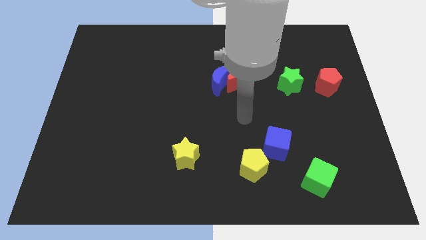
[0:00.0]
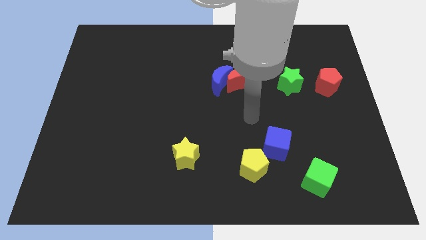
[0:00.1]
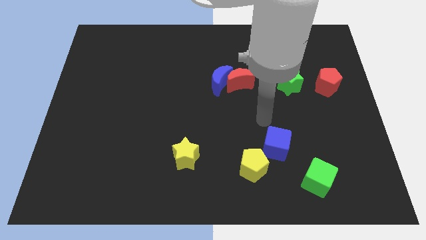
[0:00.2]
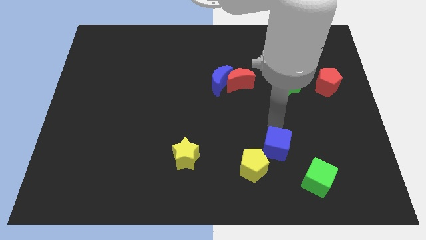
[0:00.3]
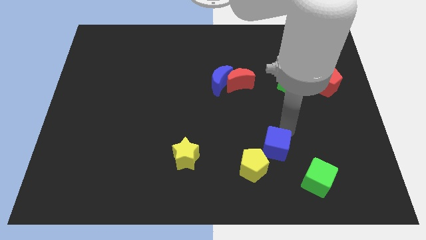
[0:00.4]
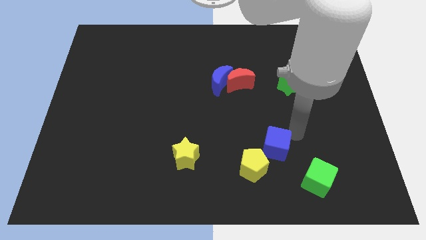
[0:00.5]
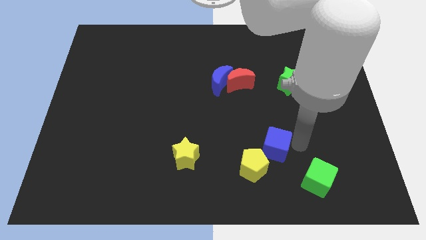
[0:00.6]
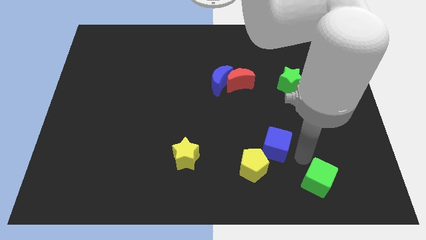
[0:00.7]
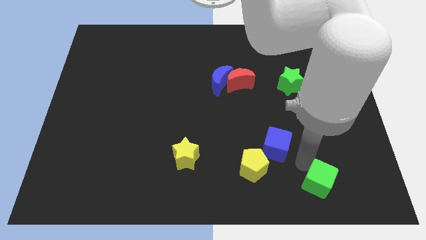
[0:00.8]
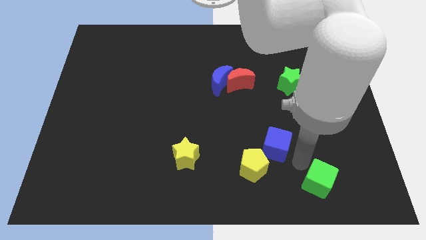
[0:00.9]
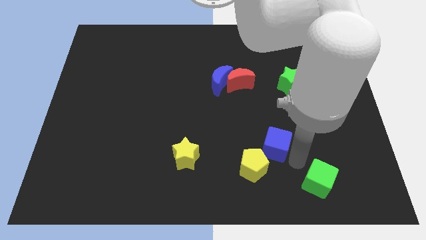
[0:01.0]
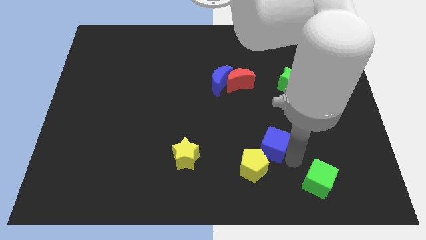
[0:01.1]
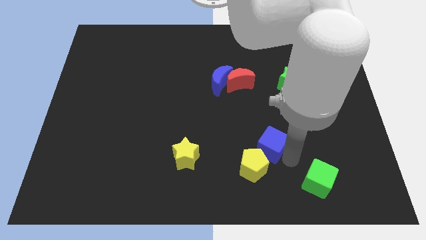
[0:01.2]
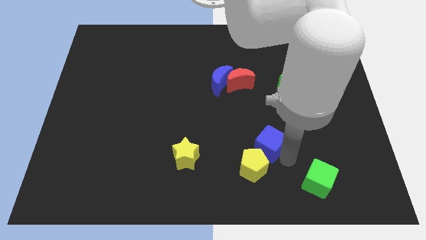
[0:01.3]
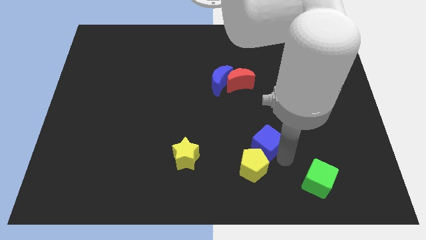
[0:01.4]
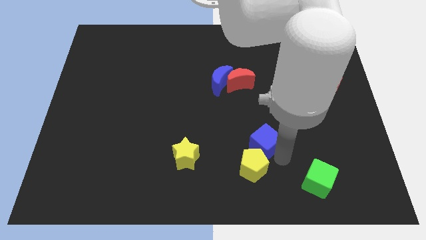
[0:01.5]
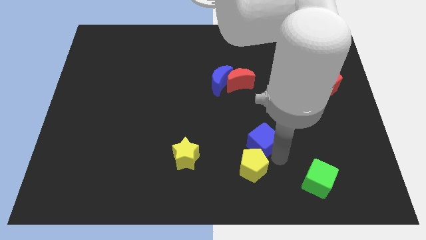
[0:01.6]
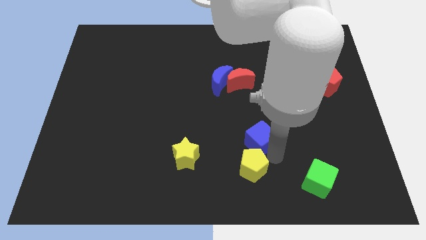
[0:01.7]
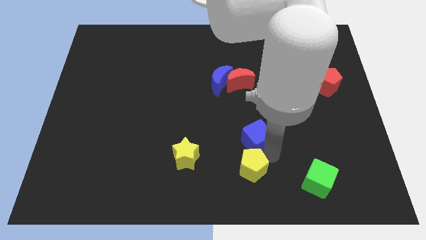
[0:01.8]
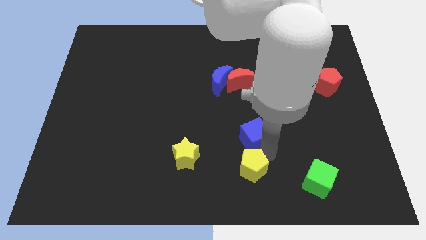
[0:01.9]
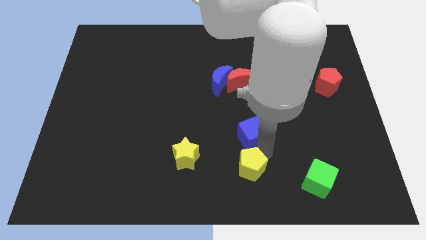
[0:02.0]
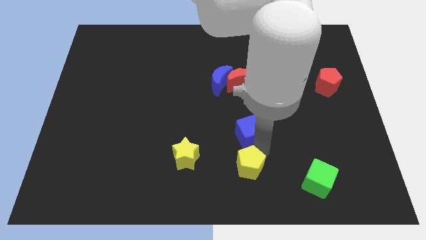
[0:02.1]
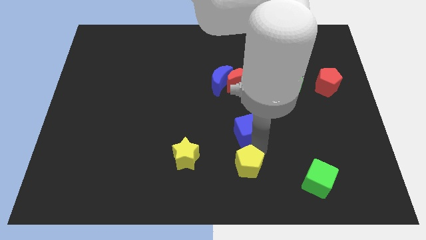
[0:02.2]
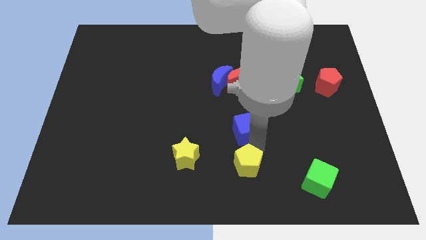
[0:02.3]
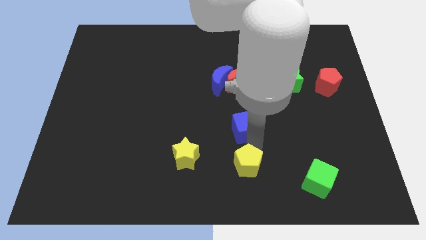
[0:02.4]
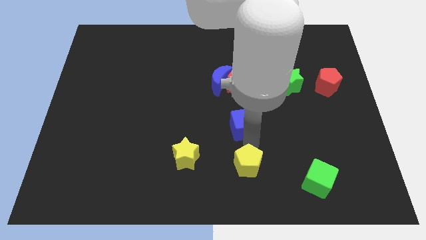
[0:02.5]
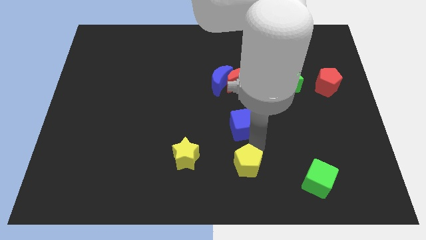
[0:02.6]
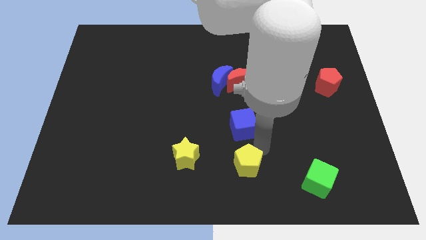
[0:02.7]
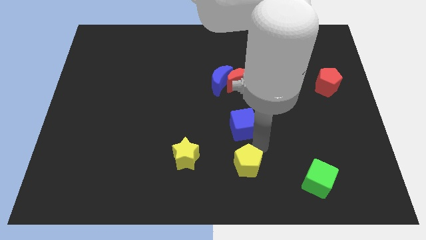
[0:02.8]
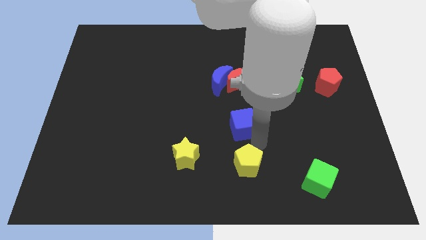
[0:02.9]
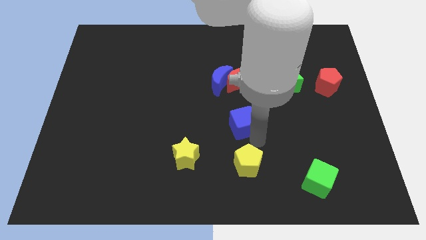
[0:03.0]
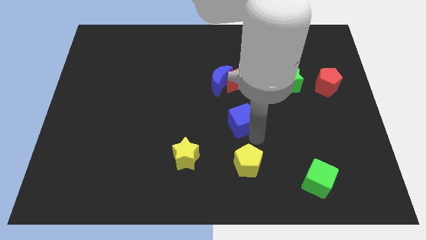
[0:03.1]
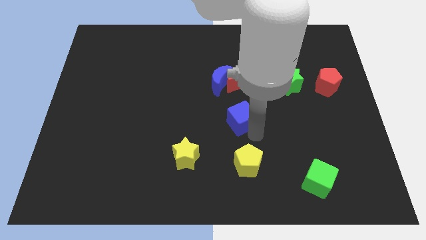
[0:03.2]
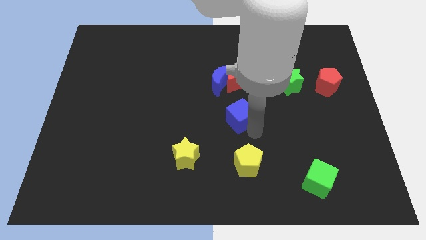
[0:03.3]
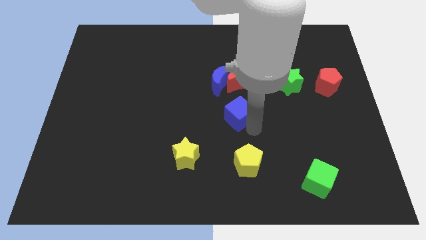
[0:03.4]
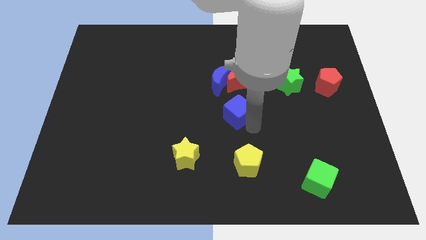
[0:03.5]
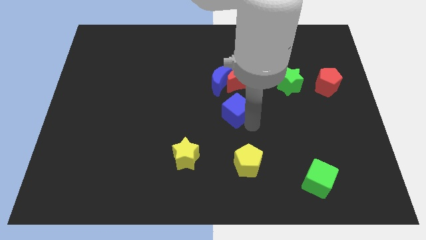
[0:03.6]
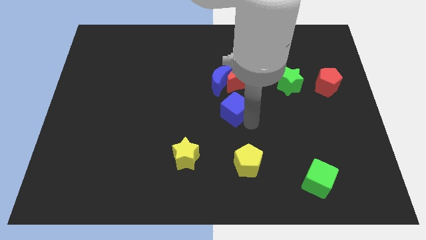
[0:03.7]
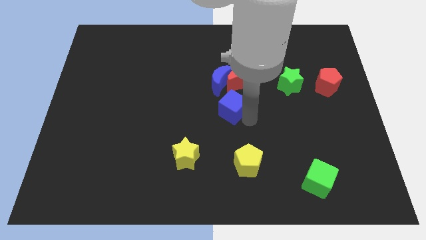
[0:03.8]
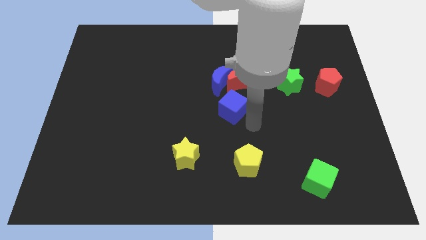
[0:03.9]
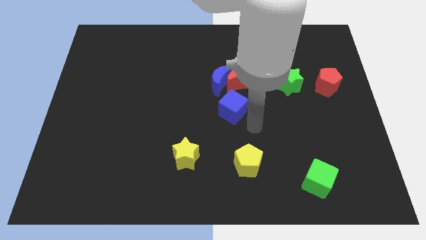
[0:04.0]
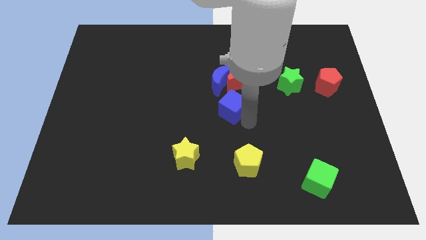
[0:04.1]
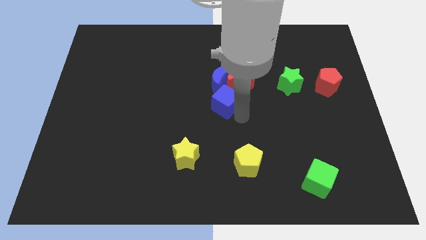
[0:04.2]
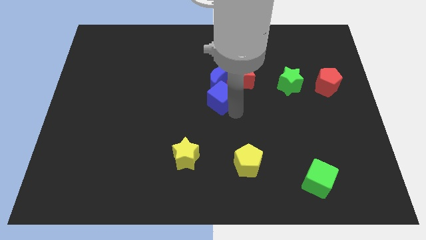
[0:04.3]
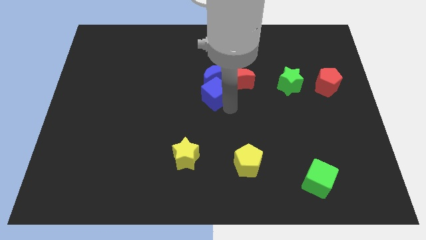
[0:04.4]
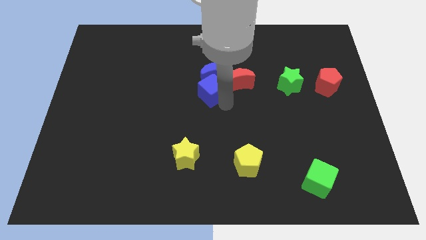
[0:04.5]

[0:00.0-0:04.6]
push the blue cube up and then left

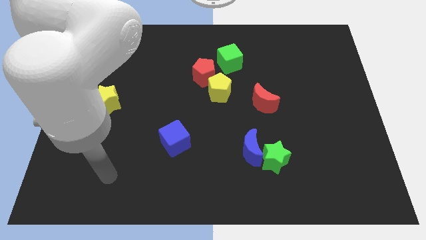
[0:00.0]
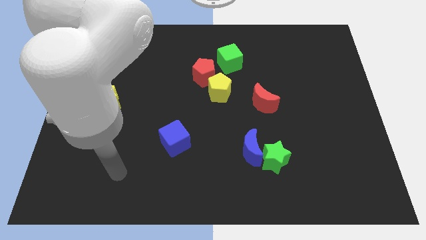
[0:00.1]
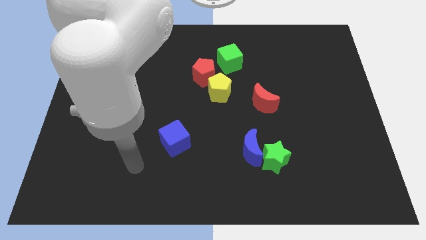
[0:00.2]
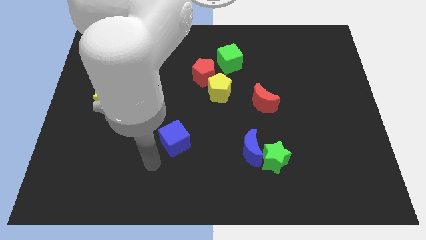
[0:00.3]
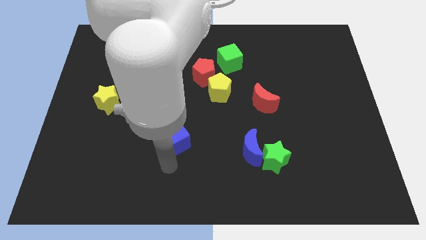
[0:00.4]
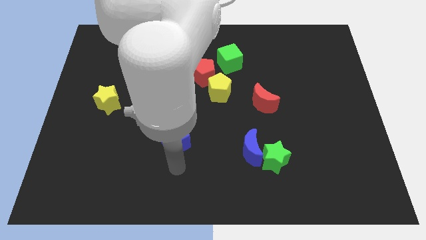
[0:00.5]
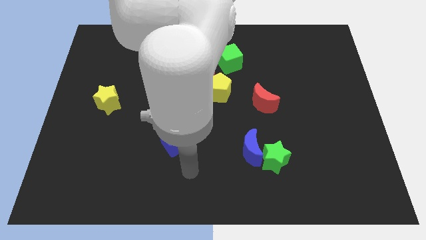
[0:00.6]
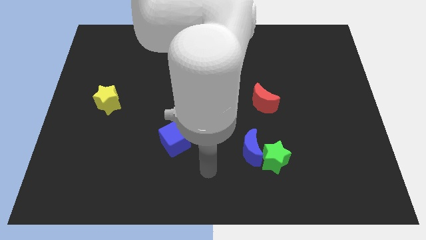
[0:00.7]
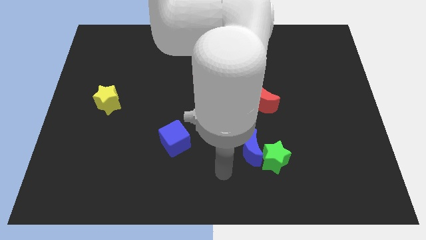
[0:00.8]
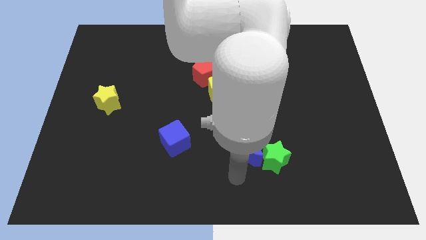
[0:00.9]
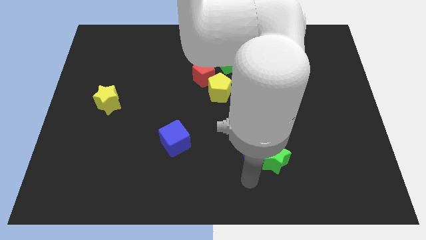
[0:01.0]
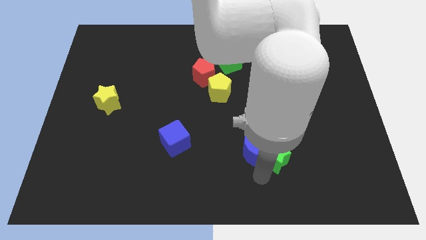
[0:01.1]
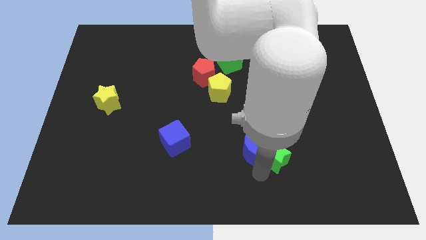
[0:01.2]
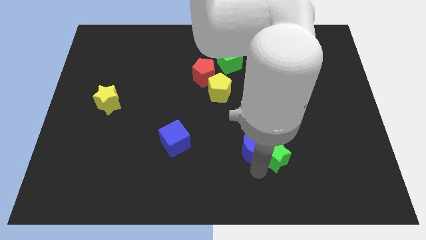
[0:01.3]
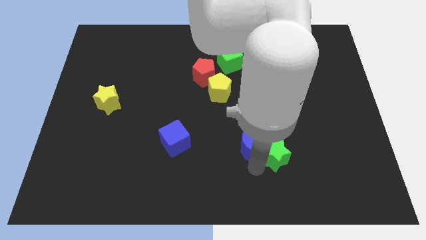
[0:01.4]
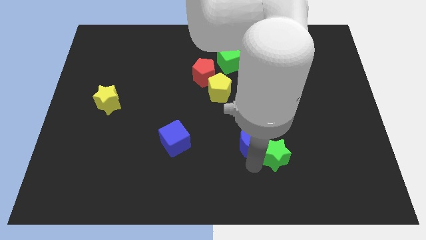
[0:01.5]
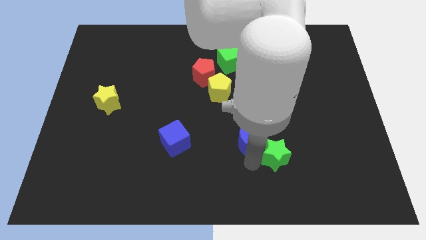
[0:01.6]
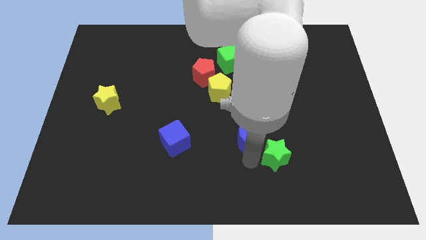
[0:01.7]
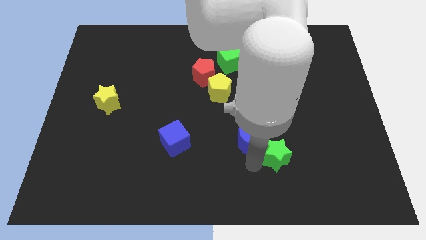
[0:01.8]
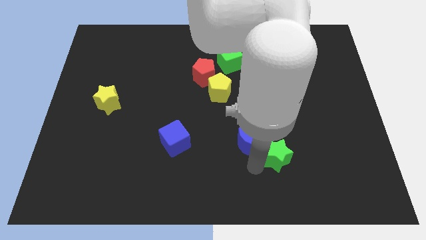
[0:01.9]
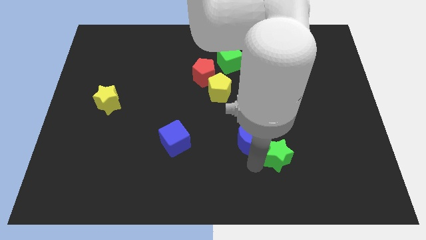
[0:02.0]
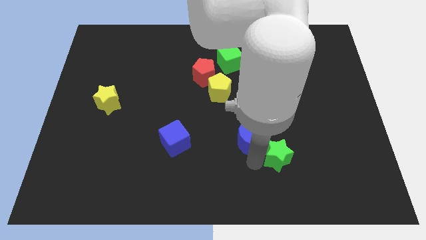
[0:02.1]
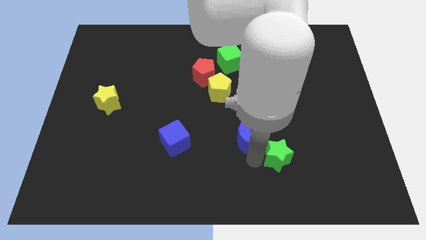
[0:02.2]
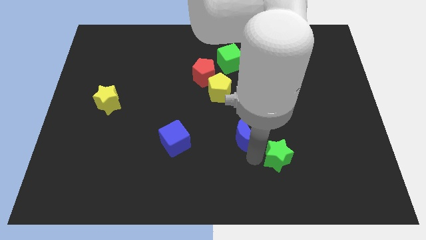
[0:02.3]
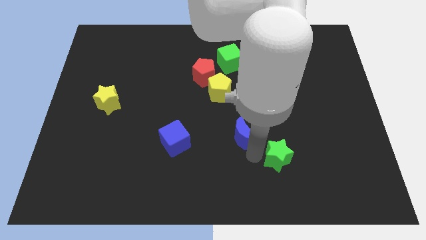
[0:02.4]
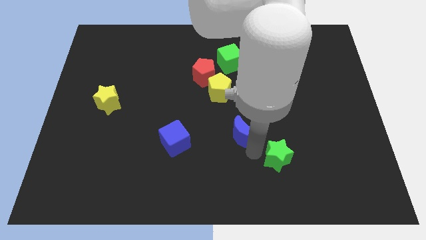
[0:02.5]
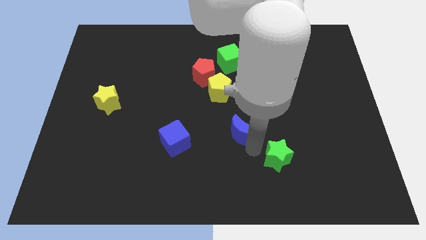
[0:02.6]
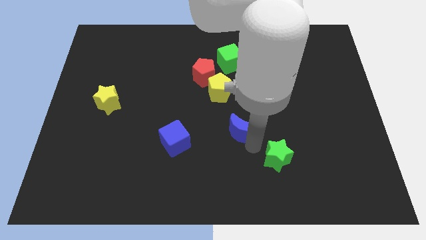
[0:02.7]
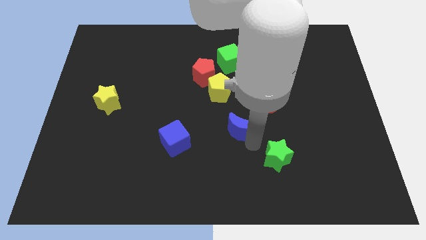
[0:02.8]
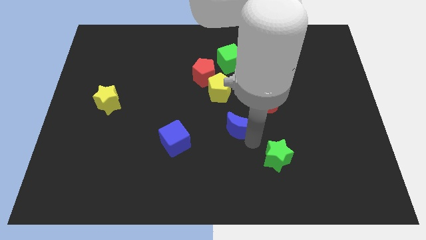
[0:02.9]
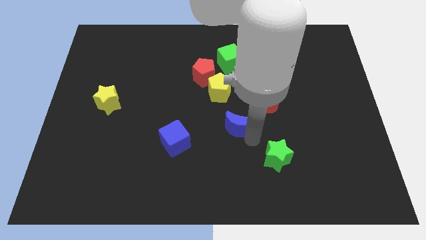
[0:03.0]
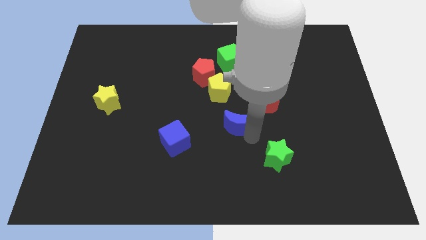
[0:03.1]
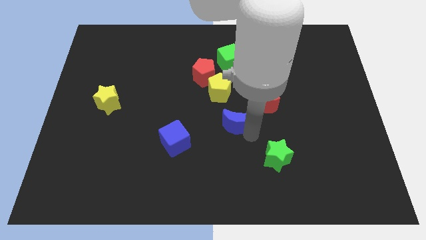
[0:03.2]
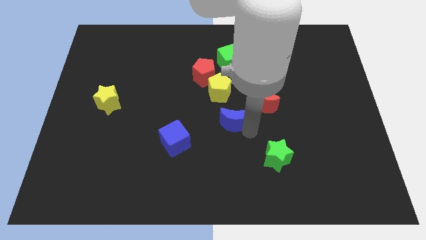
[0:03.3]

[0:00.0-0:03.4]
push the blue moon up a little
